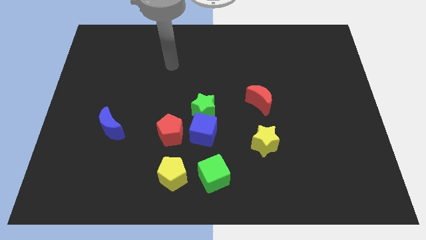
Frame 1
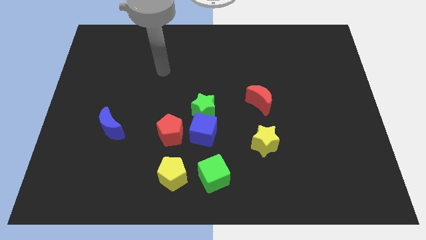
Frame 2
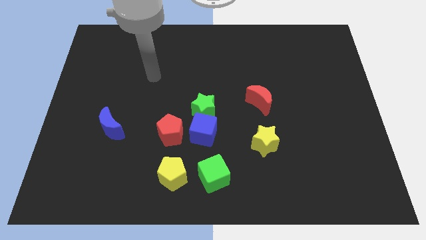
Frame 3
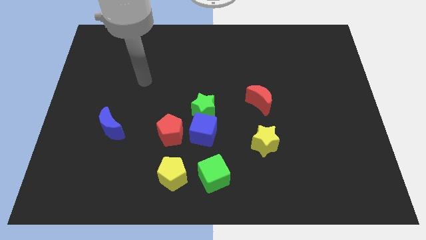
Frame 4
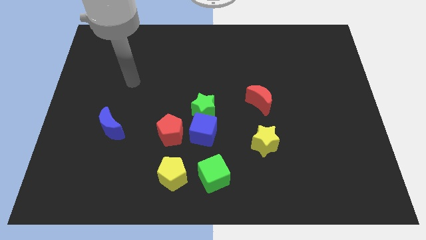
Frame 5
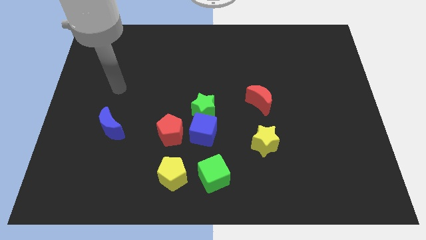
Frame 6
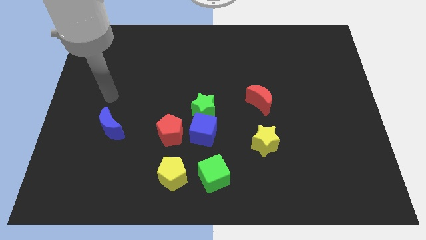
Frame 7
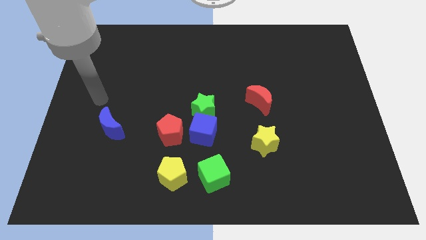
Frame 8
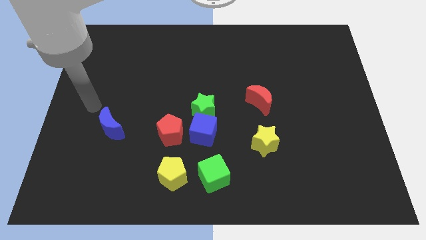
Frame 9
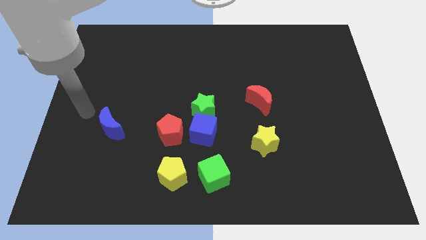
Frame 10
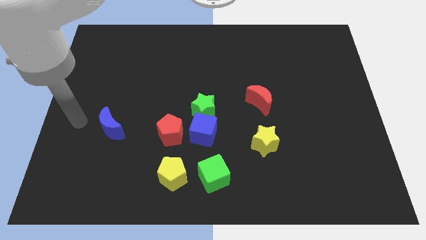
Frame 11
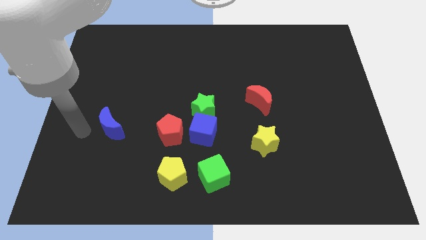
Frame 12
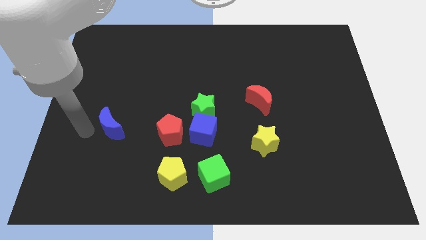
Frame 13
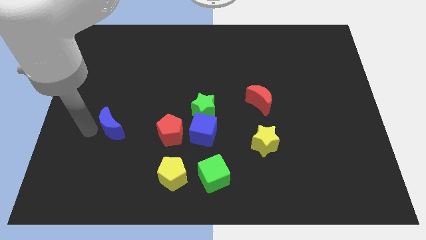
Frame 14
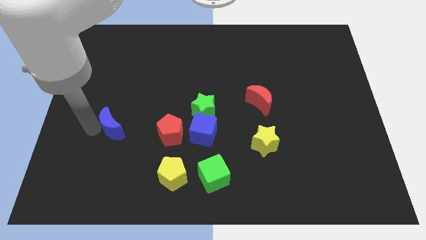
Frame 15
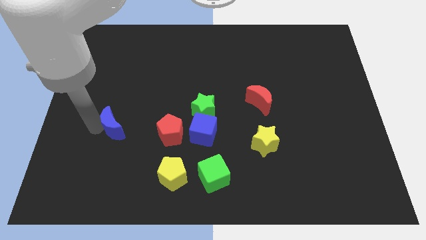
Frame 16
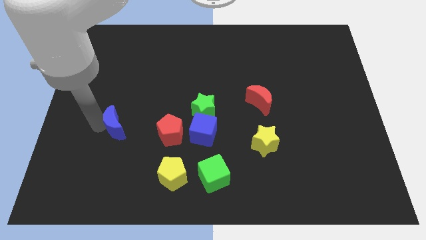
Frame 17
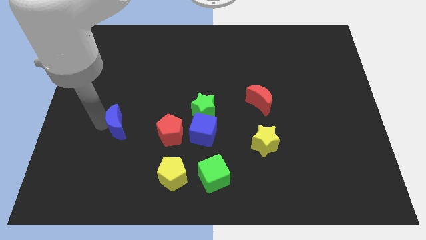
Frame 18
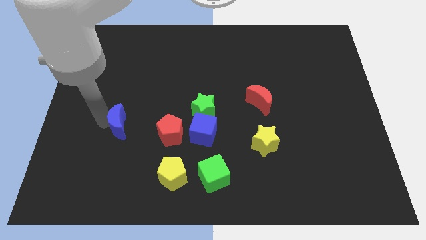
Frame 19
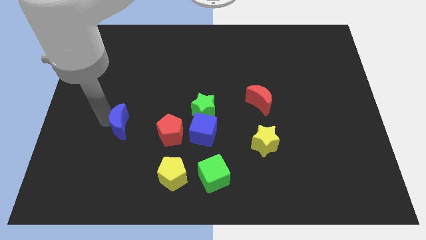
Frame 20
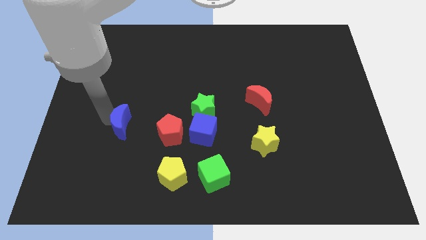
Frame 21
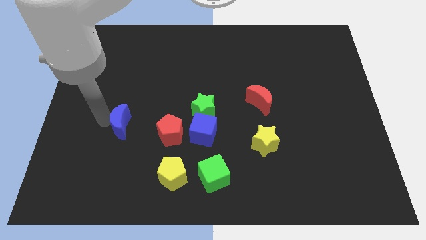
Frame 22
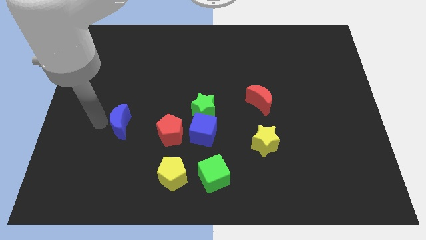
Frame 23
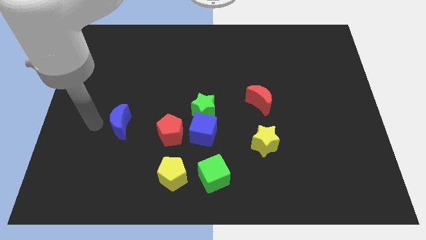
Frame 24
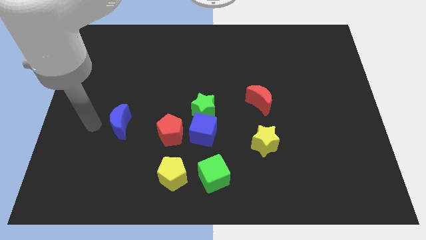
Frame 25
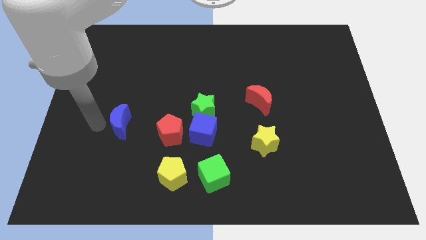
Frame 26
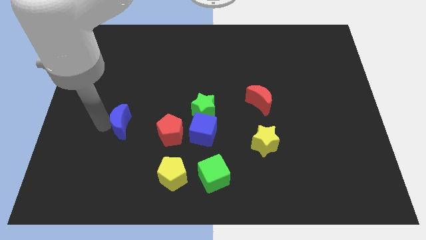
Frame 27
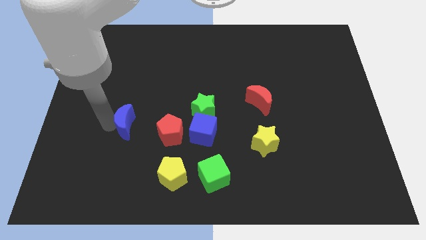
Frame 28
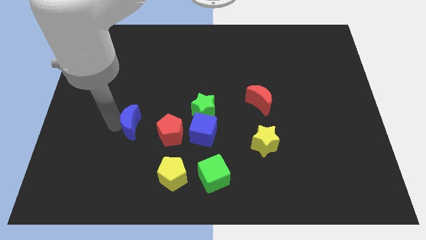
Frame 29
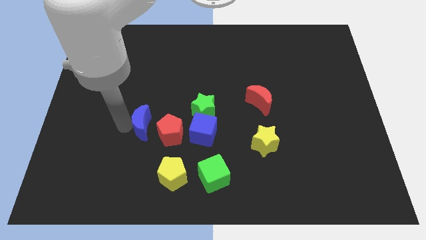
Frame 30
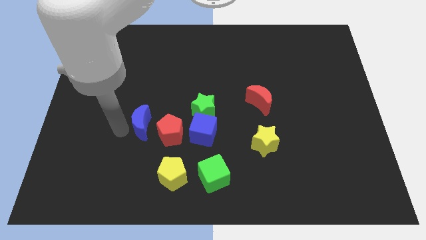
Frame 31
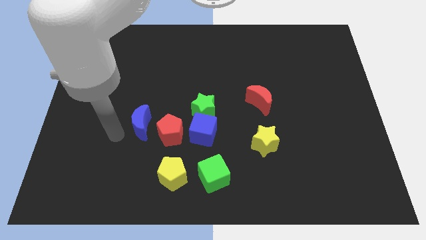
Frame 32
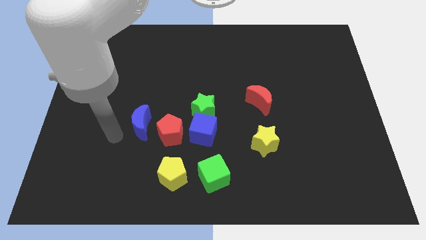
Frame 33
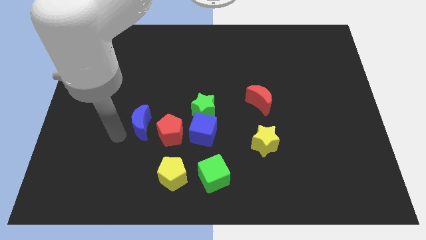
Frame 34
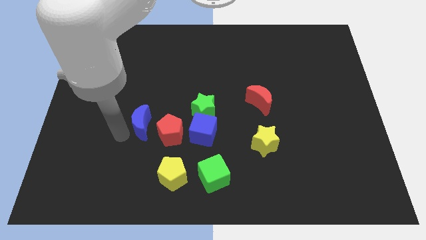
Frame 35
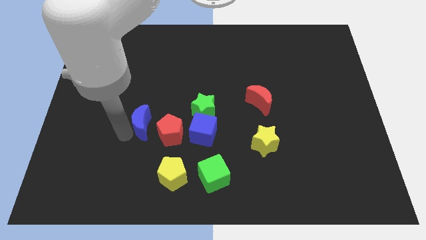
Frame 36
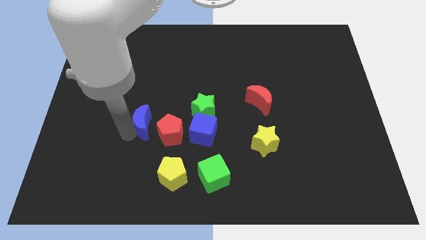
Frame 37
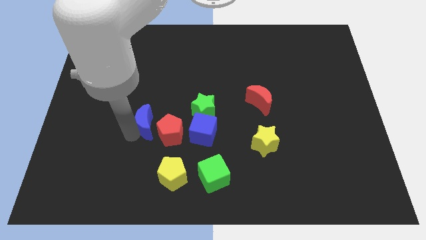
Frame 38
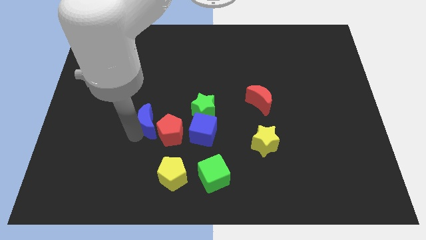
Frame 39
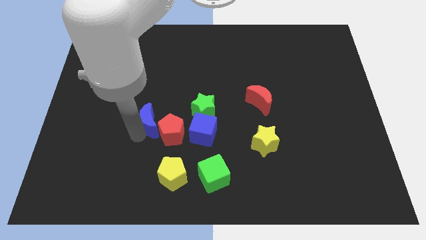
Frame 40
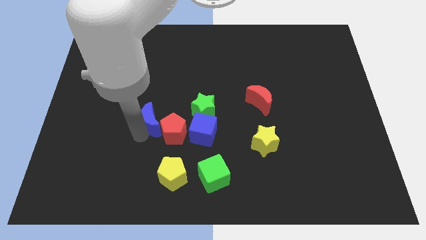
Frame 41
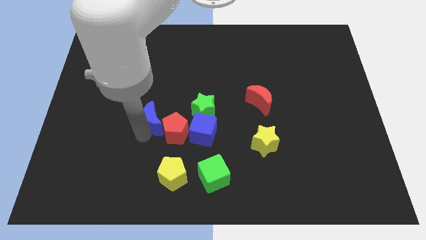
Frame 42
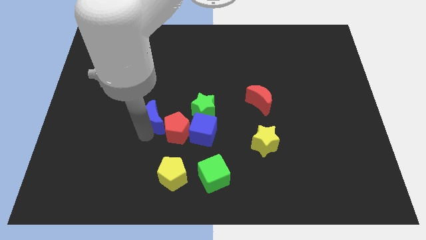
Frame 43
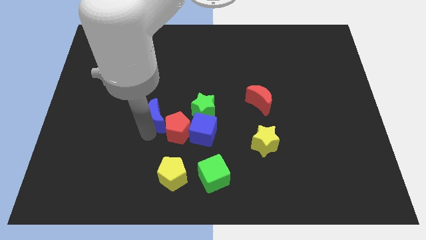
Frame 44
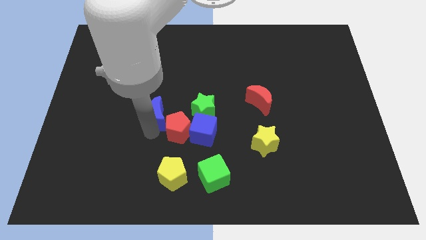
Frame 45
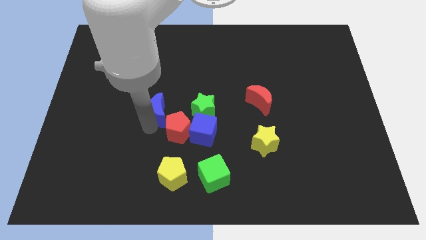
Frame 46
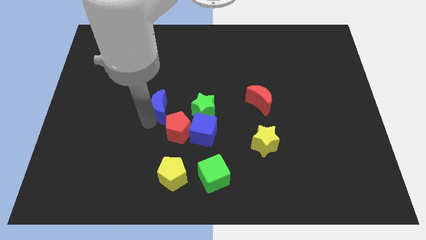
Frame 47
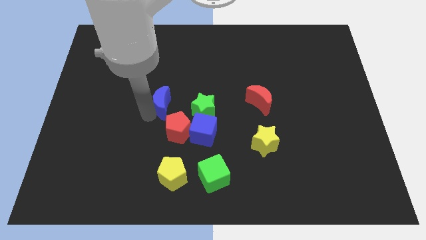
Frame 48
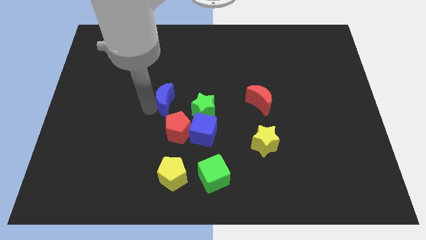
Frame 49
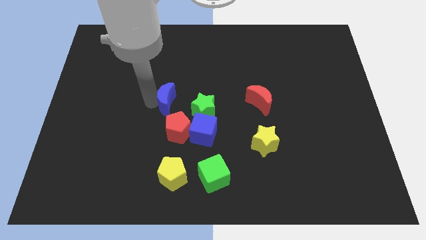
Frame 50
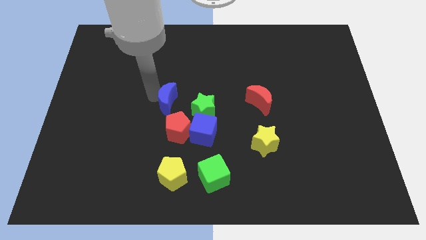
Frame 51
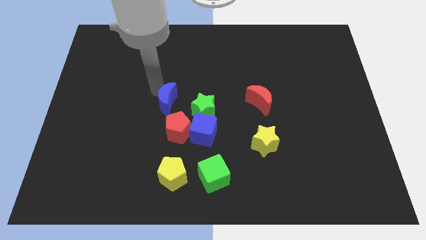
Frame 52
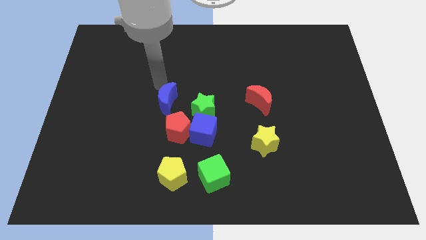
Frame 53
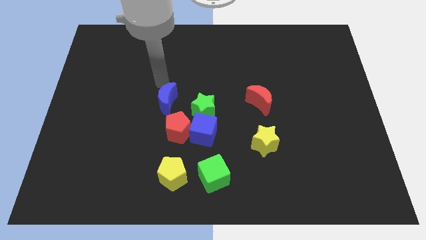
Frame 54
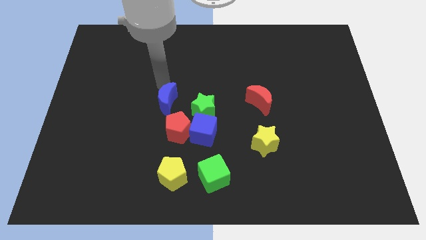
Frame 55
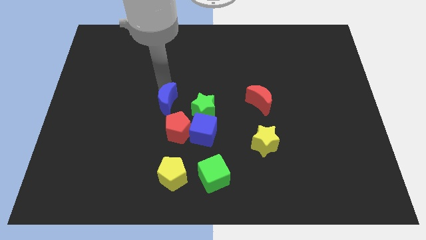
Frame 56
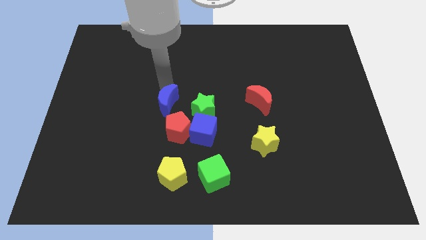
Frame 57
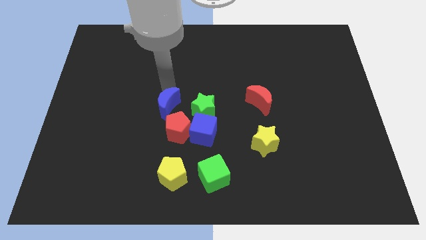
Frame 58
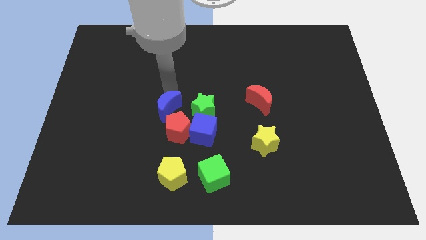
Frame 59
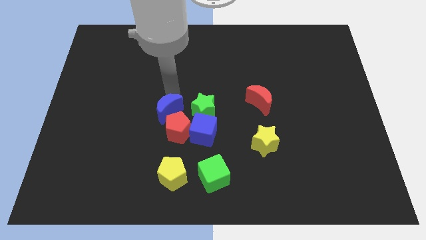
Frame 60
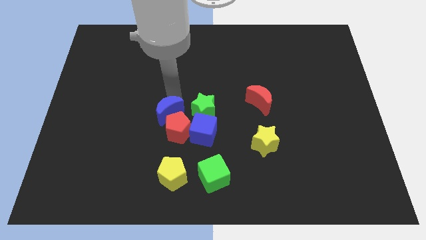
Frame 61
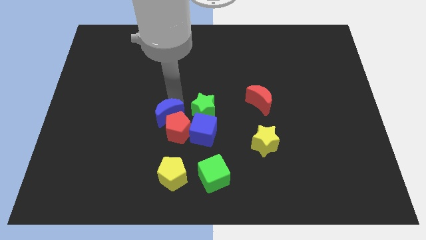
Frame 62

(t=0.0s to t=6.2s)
put the blue moon to the top side of the yellow pentagon

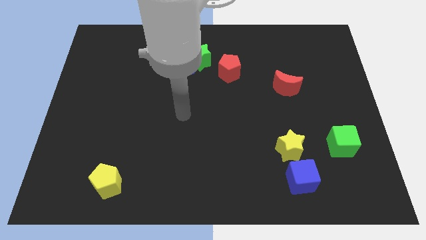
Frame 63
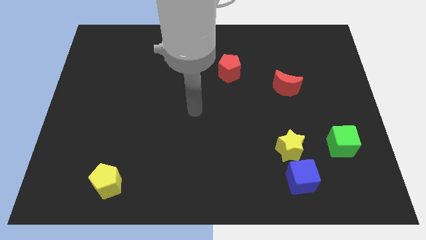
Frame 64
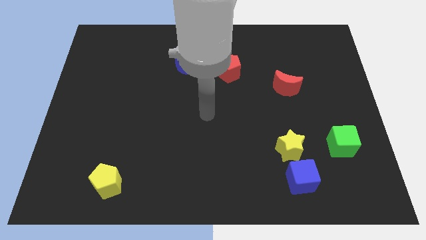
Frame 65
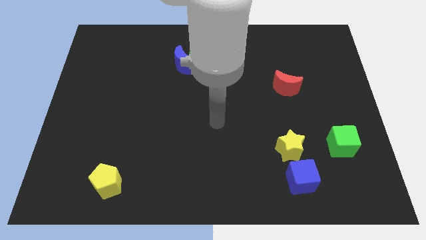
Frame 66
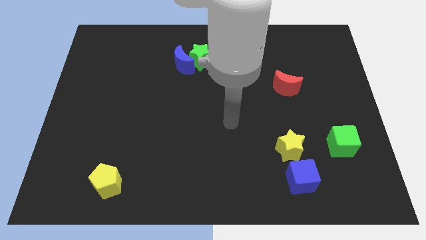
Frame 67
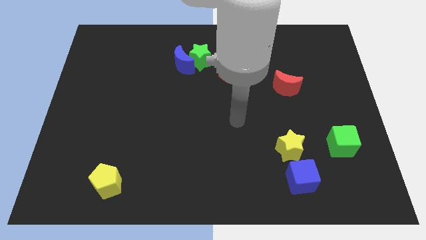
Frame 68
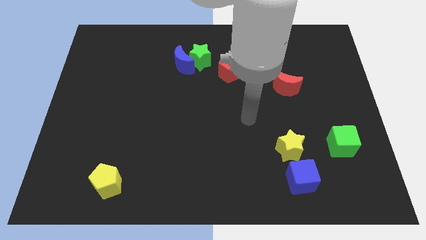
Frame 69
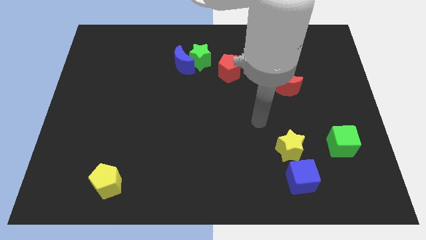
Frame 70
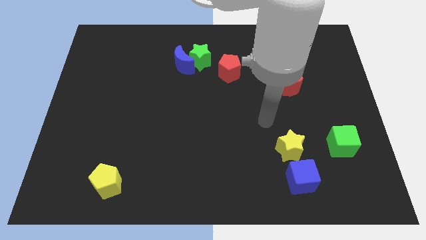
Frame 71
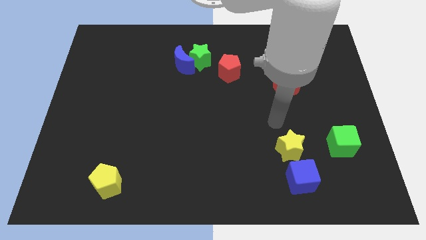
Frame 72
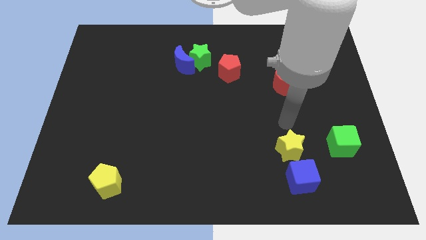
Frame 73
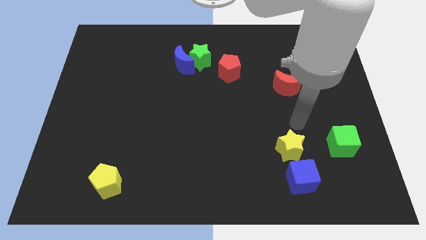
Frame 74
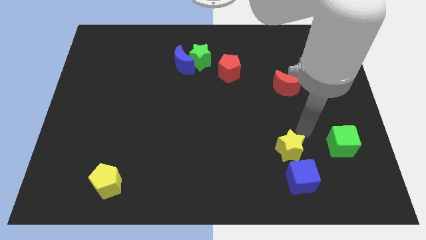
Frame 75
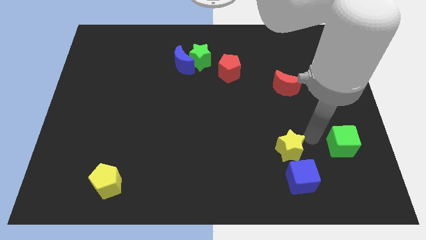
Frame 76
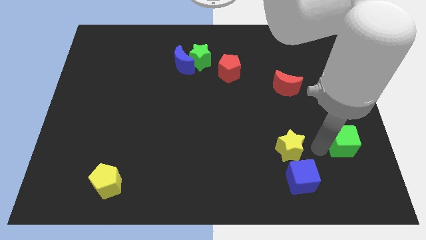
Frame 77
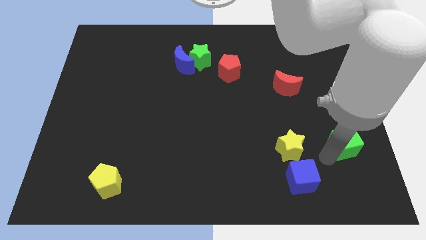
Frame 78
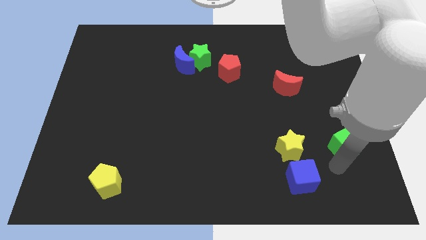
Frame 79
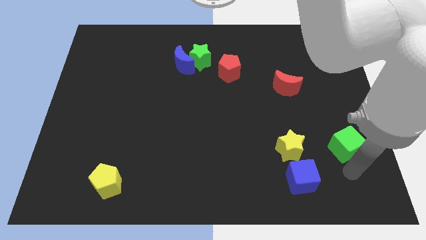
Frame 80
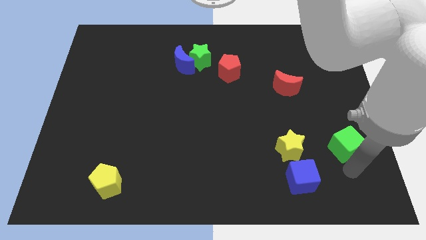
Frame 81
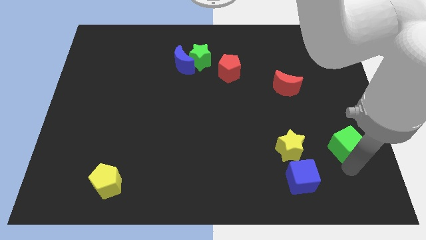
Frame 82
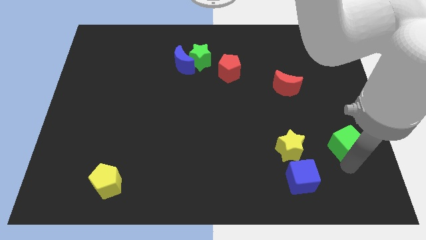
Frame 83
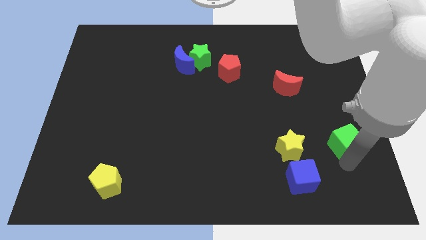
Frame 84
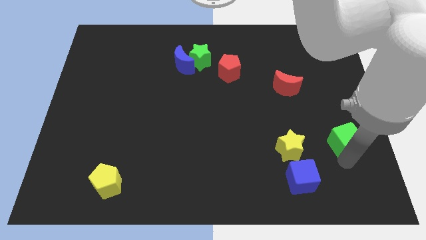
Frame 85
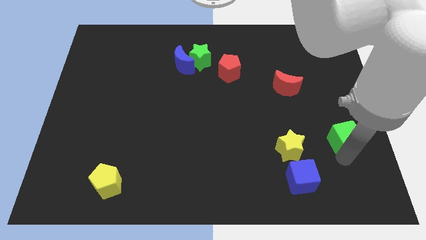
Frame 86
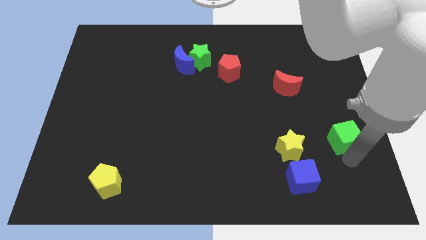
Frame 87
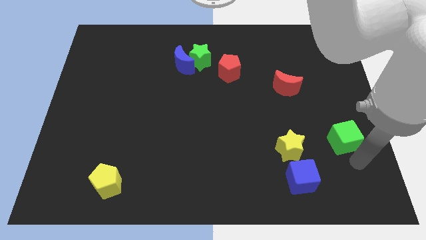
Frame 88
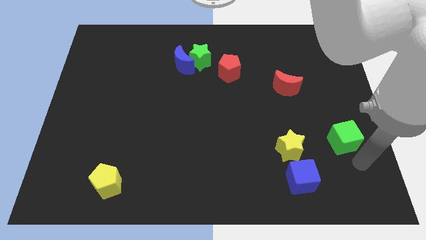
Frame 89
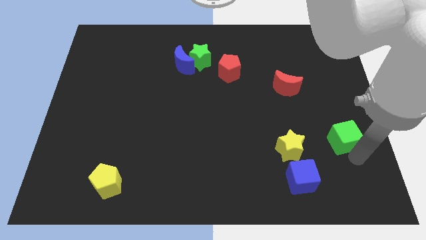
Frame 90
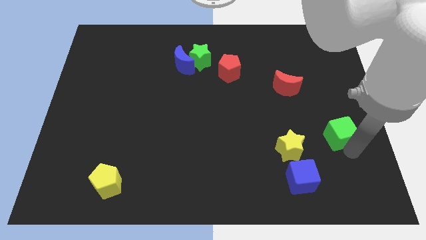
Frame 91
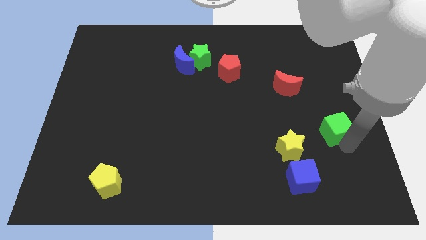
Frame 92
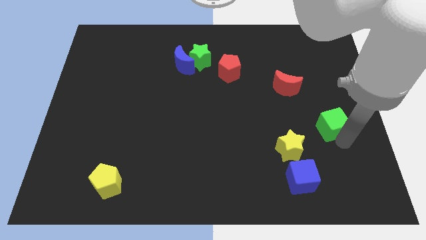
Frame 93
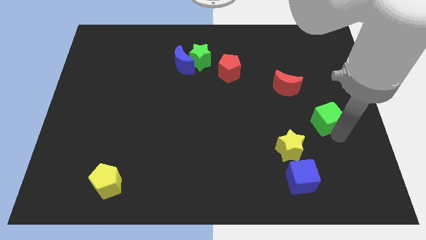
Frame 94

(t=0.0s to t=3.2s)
move the green cube to the bottom right of the red moon
